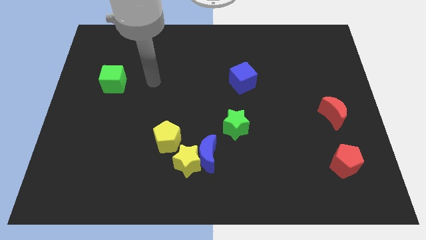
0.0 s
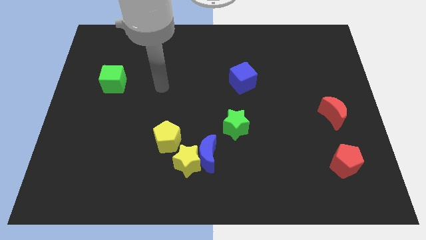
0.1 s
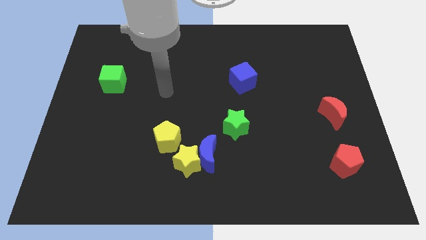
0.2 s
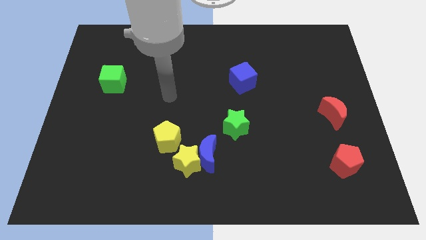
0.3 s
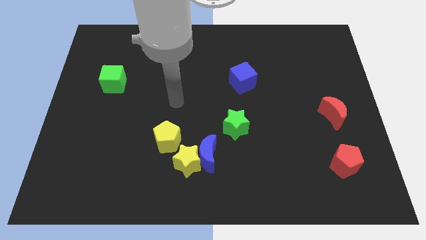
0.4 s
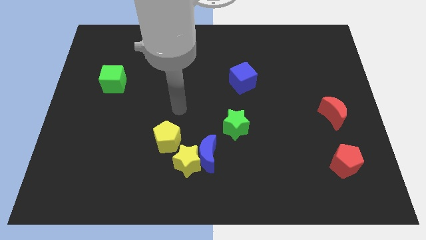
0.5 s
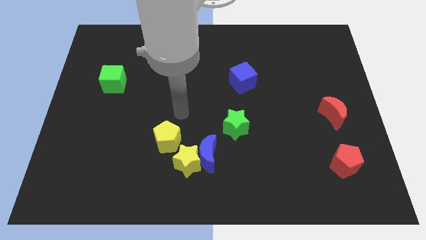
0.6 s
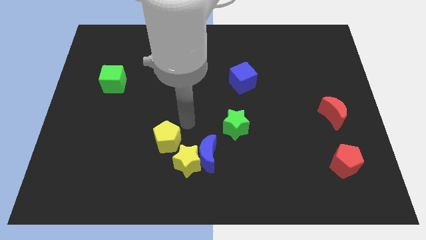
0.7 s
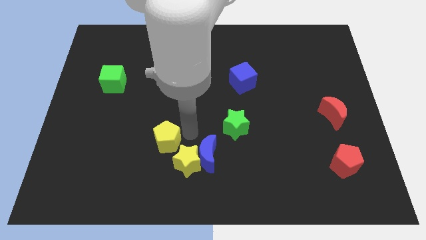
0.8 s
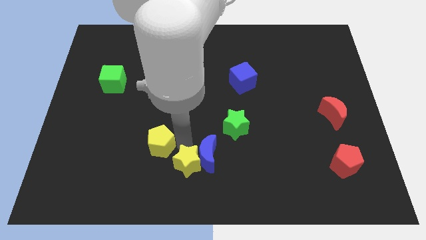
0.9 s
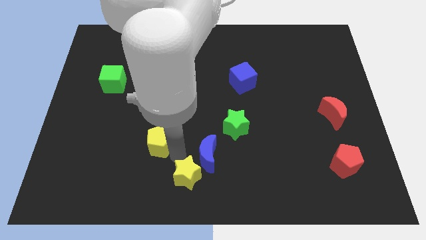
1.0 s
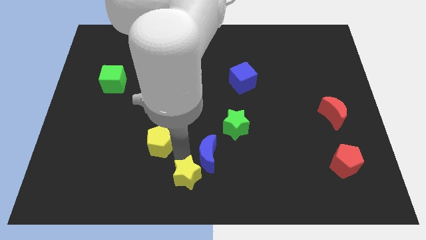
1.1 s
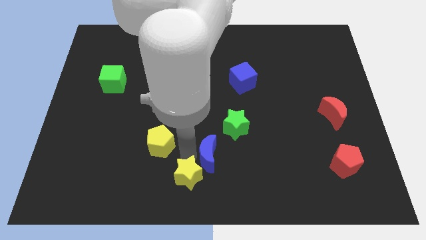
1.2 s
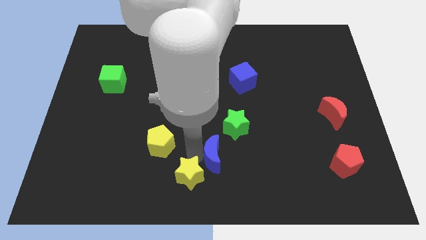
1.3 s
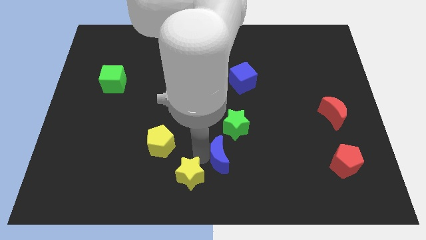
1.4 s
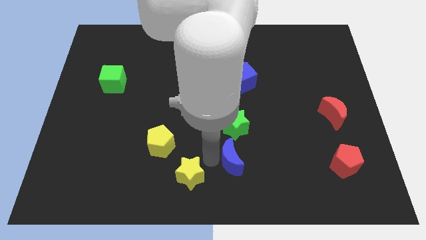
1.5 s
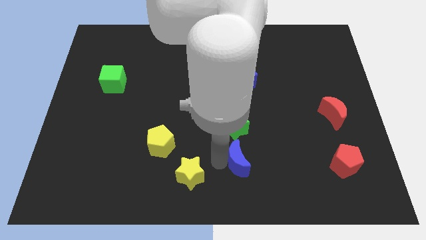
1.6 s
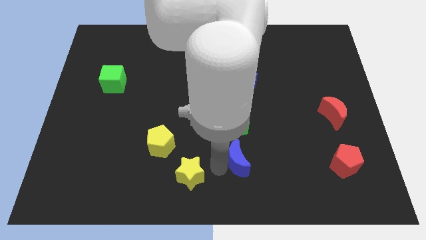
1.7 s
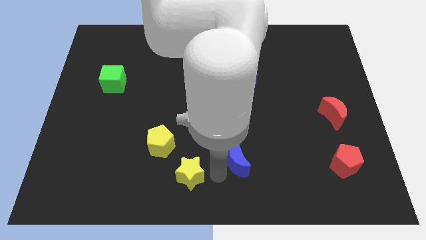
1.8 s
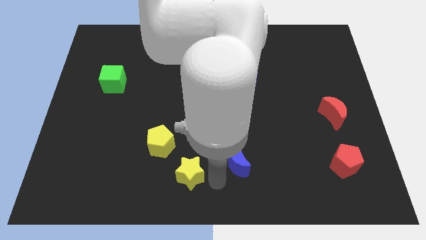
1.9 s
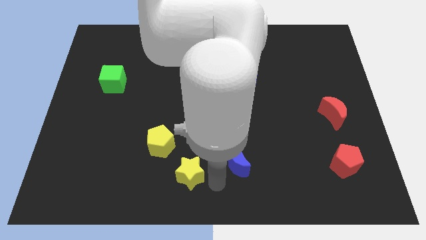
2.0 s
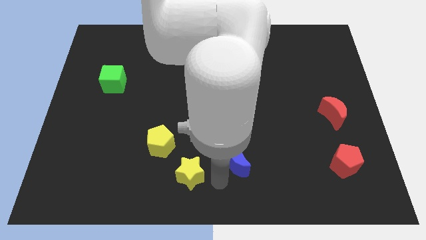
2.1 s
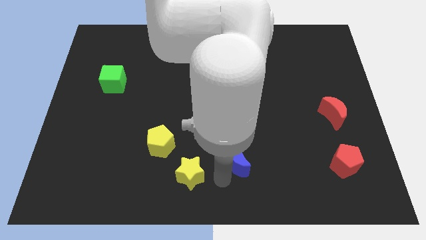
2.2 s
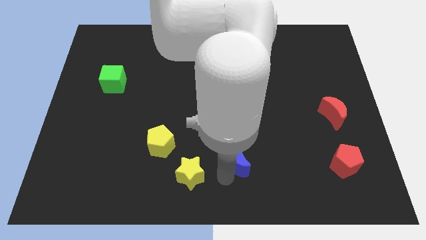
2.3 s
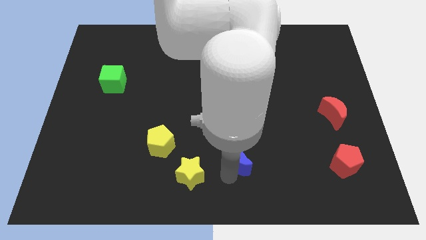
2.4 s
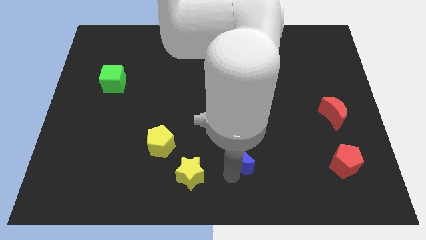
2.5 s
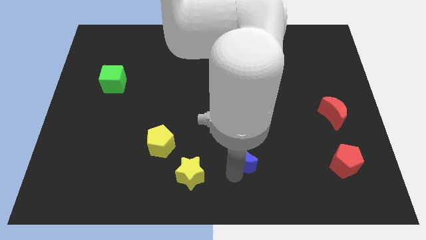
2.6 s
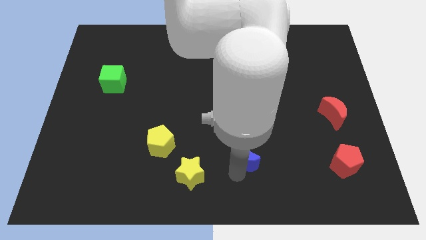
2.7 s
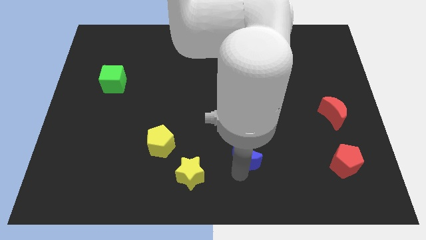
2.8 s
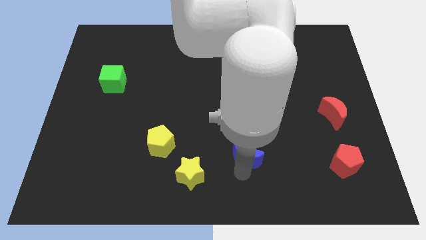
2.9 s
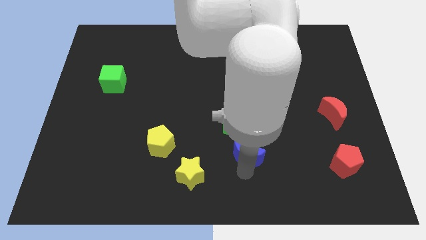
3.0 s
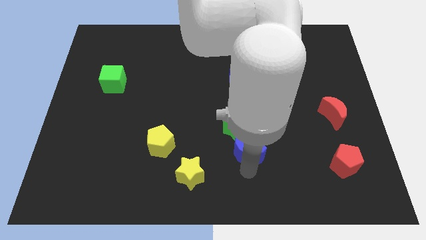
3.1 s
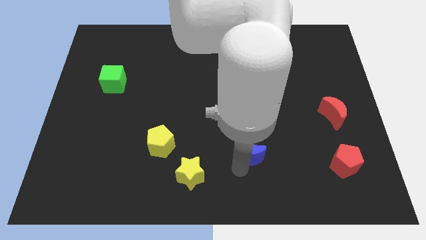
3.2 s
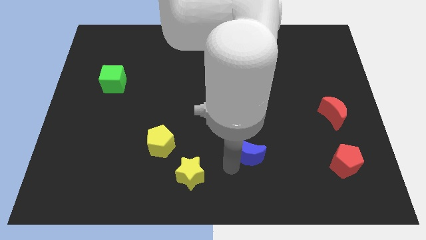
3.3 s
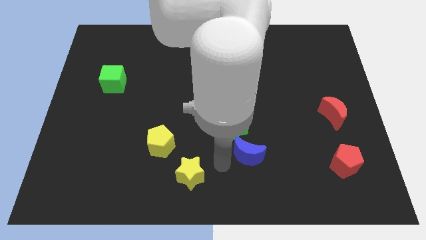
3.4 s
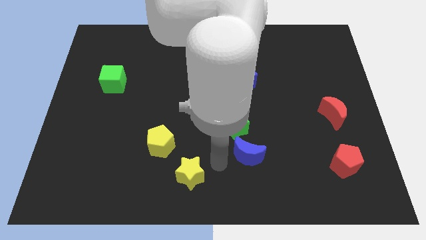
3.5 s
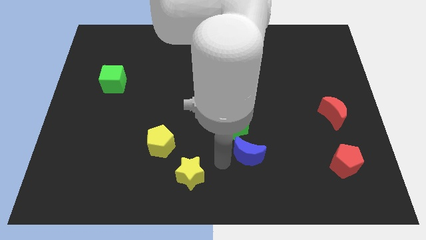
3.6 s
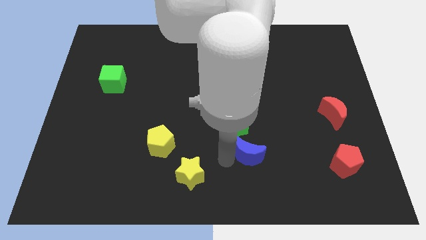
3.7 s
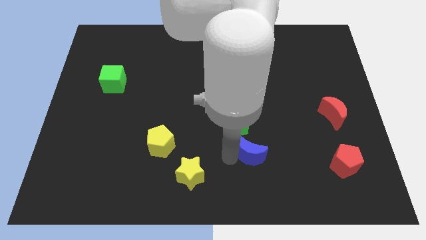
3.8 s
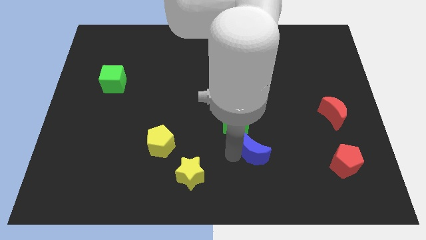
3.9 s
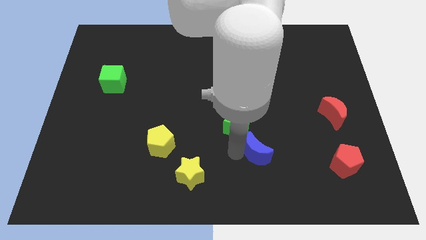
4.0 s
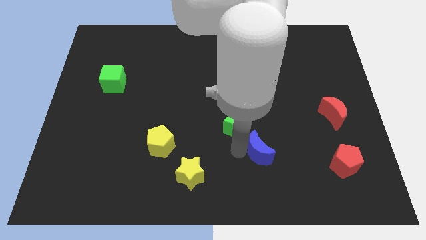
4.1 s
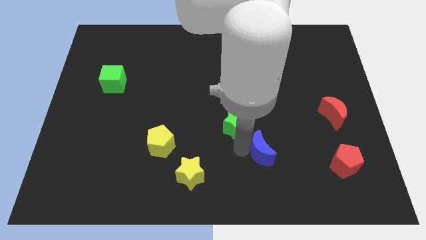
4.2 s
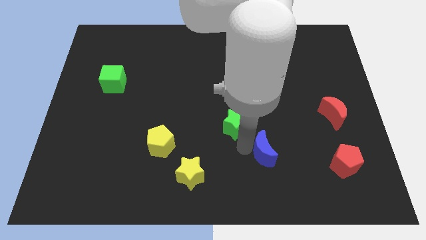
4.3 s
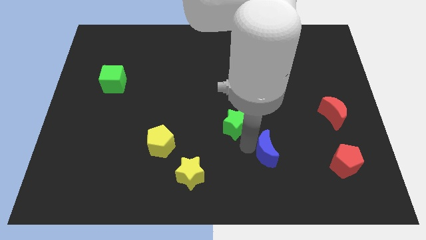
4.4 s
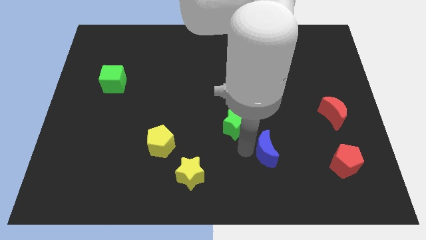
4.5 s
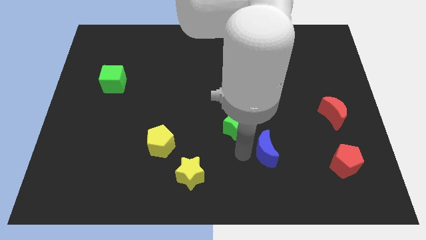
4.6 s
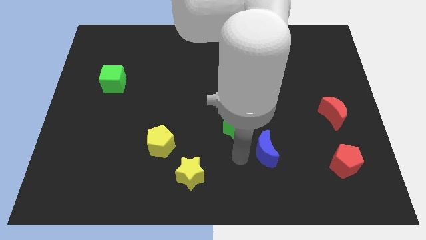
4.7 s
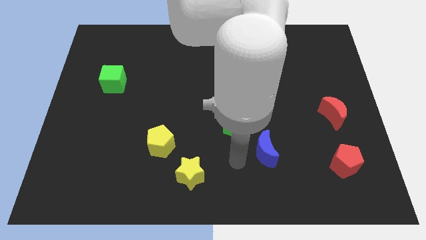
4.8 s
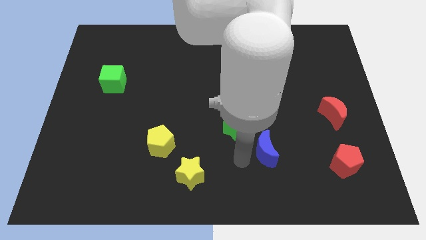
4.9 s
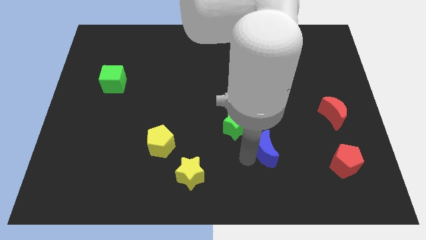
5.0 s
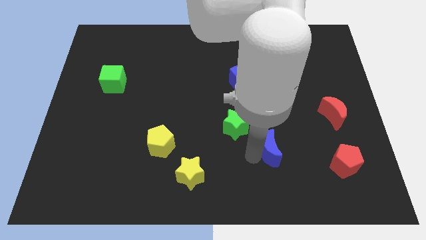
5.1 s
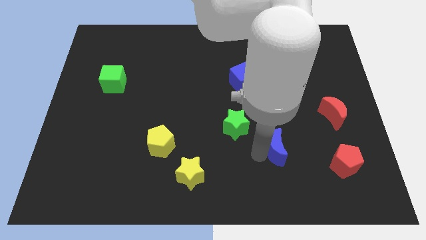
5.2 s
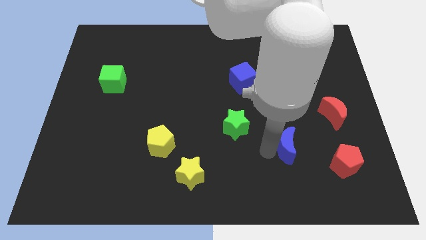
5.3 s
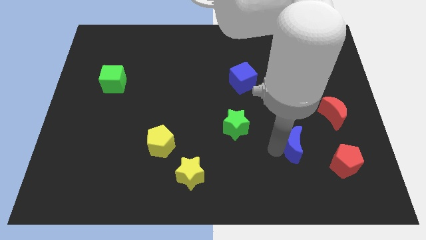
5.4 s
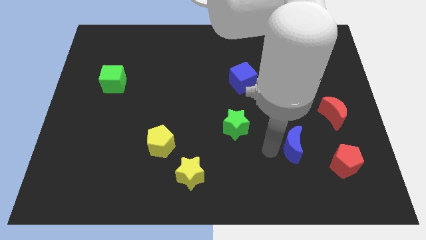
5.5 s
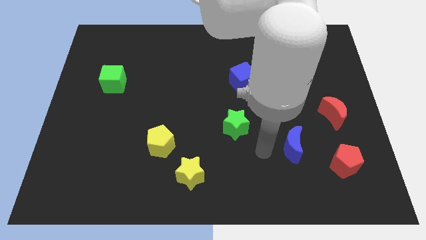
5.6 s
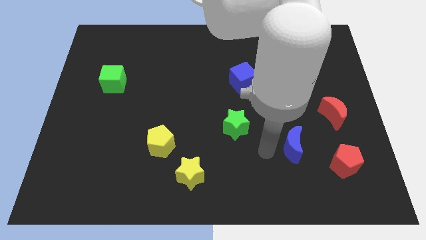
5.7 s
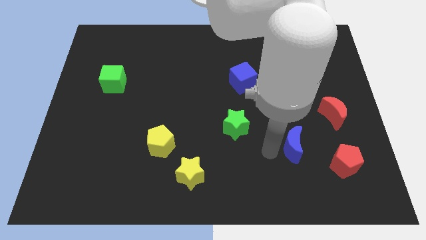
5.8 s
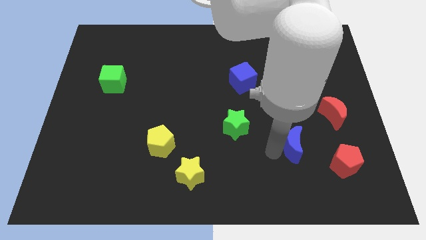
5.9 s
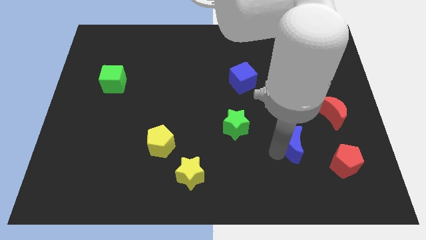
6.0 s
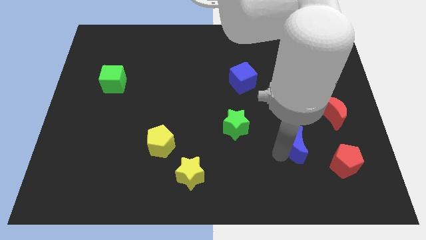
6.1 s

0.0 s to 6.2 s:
move the blue moon diagonally up and to the left of the red pentagon

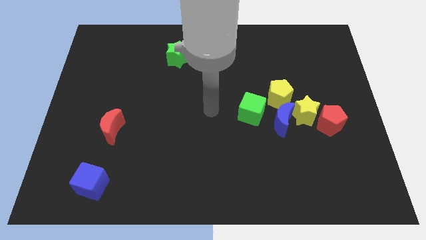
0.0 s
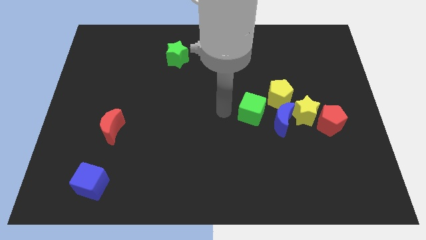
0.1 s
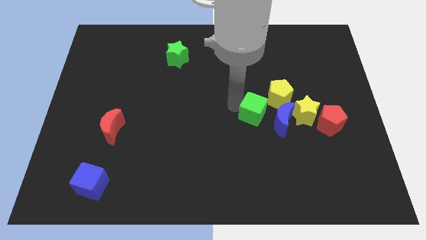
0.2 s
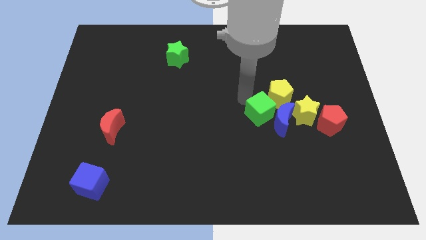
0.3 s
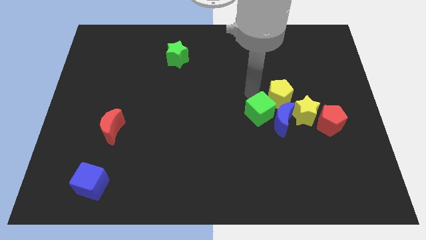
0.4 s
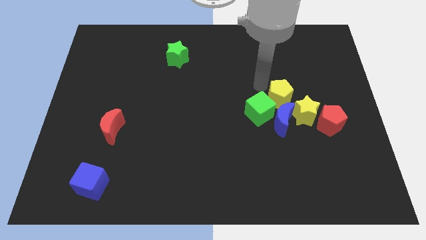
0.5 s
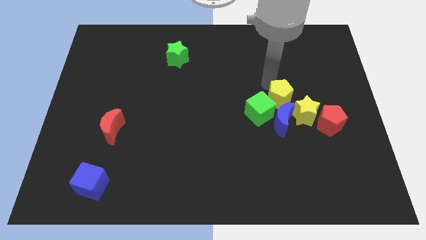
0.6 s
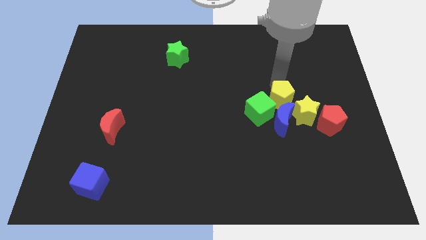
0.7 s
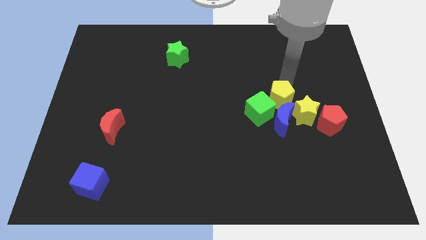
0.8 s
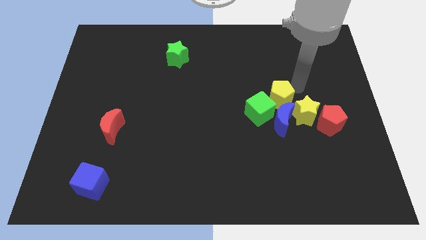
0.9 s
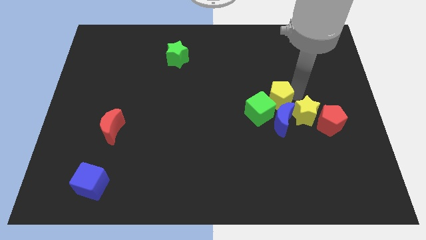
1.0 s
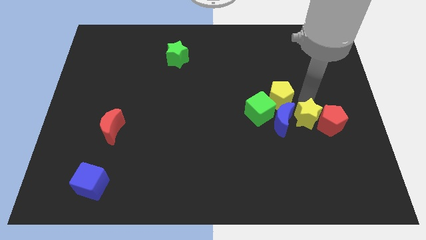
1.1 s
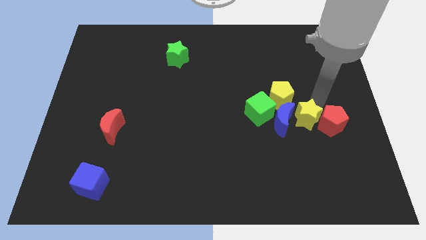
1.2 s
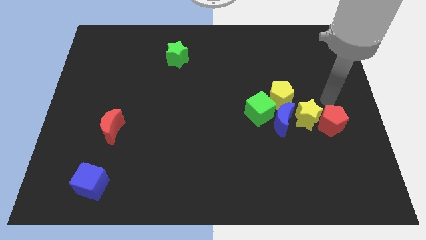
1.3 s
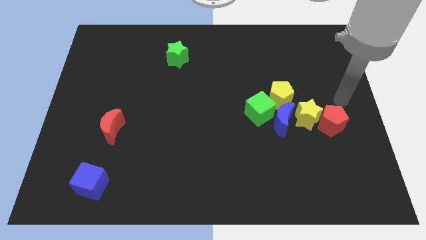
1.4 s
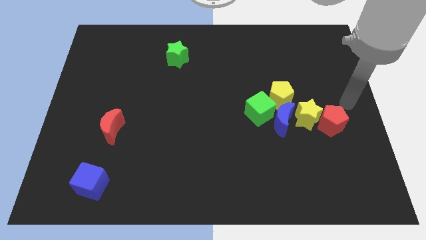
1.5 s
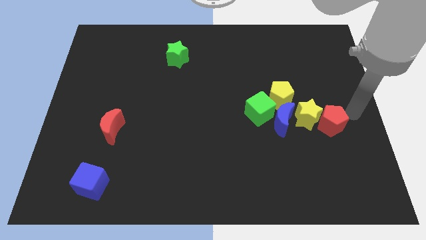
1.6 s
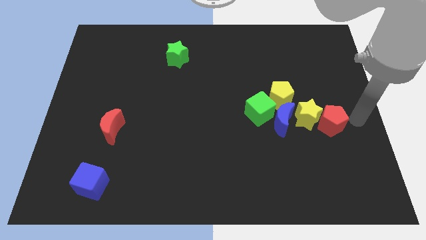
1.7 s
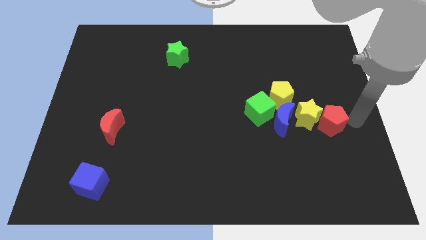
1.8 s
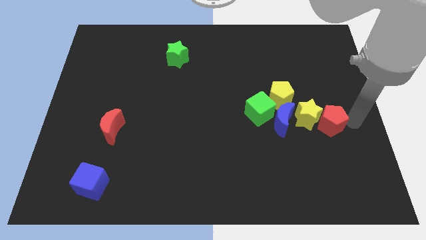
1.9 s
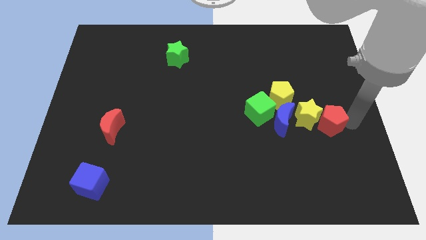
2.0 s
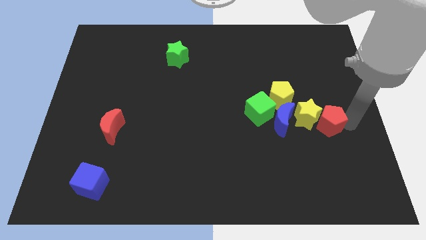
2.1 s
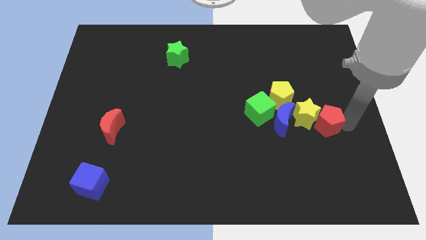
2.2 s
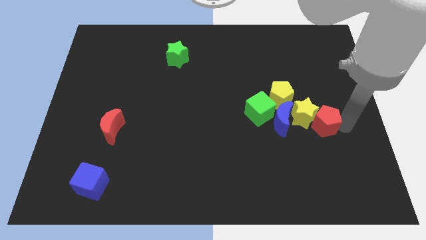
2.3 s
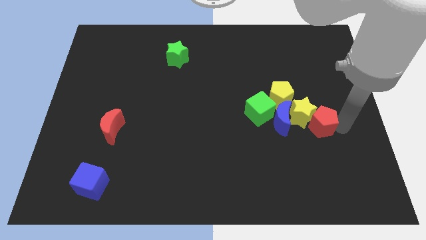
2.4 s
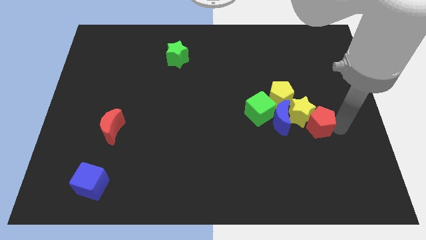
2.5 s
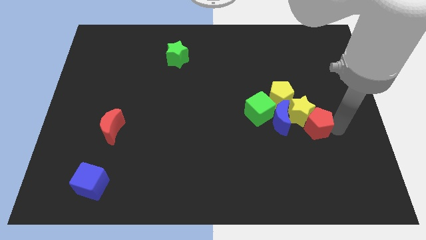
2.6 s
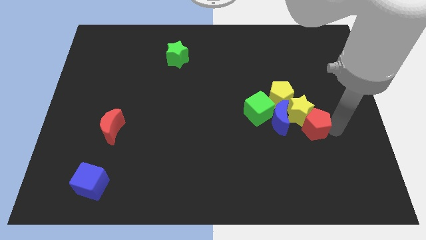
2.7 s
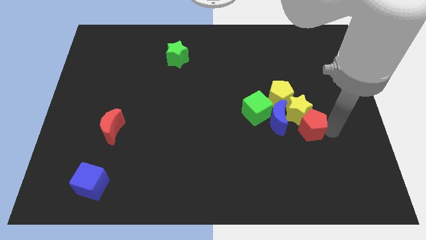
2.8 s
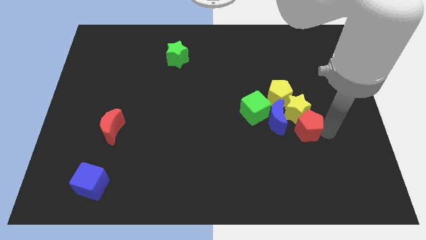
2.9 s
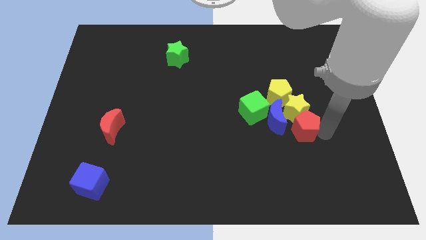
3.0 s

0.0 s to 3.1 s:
slide the red pentagon diagonally down and to the left of the yellow star
